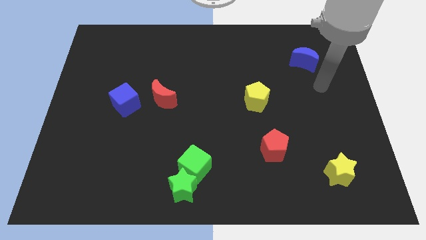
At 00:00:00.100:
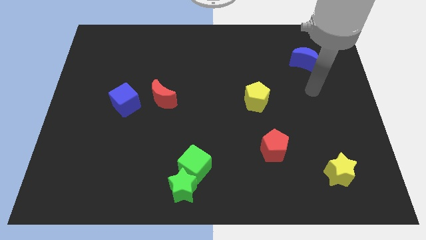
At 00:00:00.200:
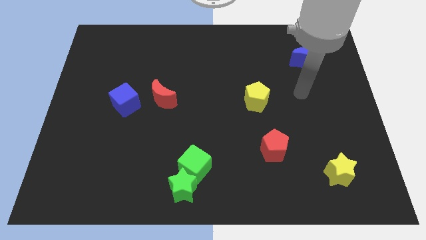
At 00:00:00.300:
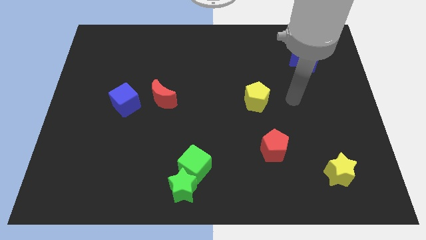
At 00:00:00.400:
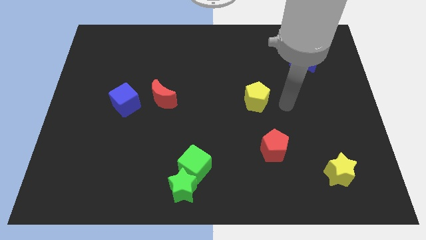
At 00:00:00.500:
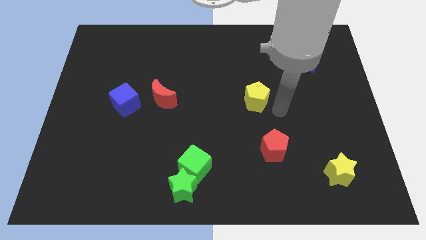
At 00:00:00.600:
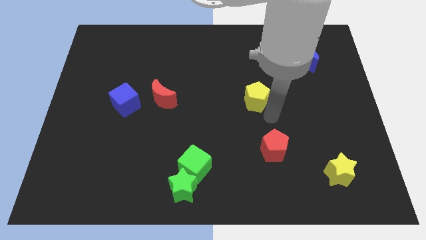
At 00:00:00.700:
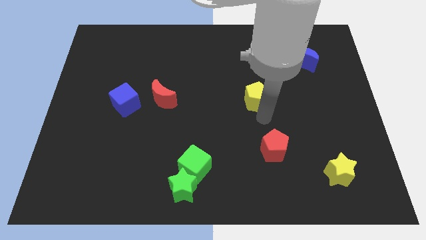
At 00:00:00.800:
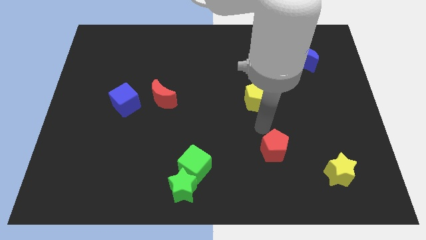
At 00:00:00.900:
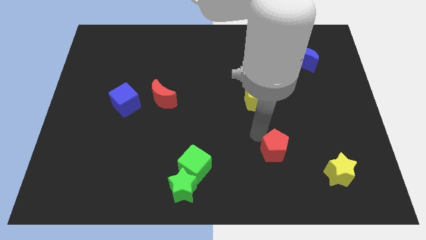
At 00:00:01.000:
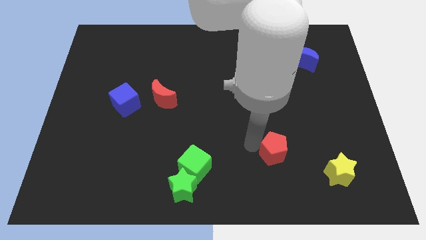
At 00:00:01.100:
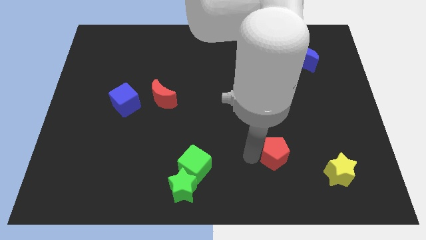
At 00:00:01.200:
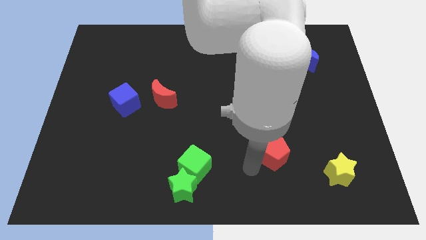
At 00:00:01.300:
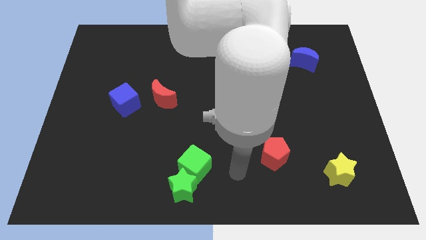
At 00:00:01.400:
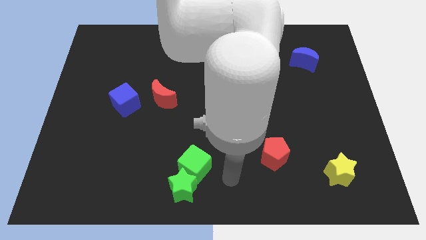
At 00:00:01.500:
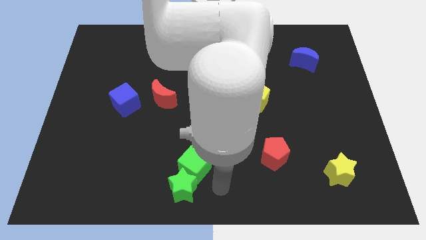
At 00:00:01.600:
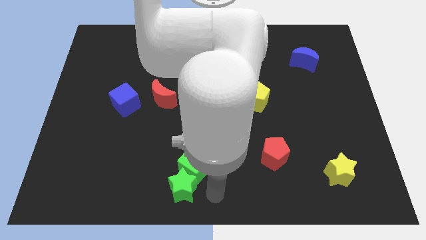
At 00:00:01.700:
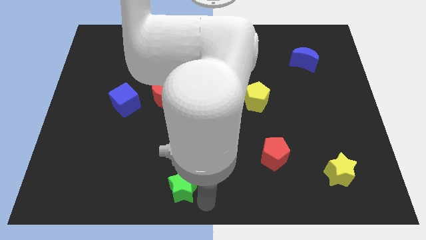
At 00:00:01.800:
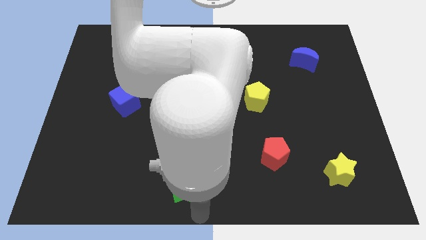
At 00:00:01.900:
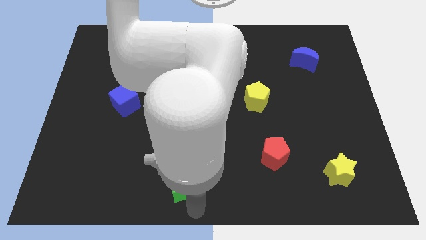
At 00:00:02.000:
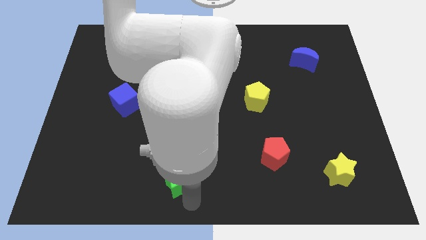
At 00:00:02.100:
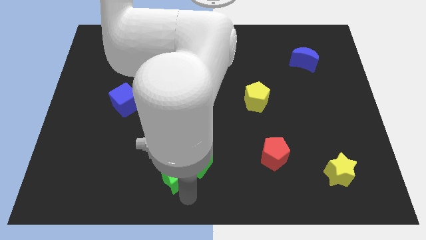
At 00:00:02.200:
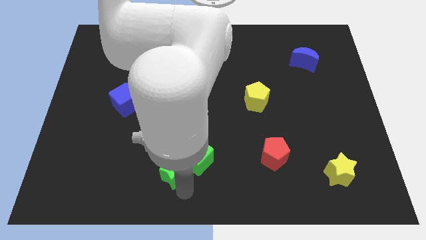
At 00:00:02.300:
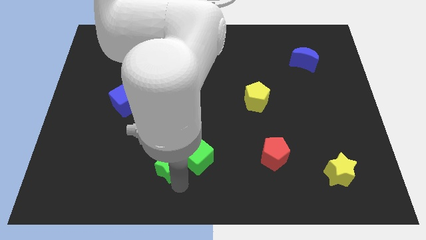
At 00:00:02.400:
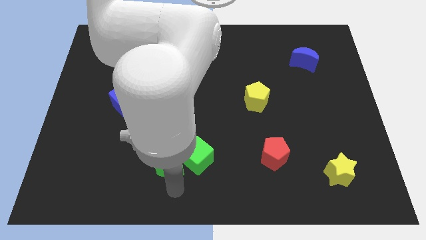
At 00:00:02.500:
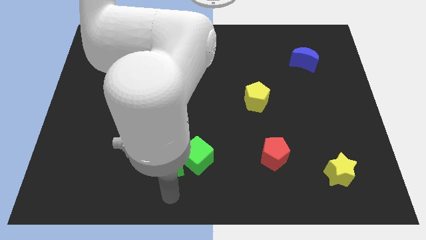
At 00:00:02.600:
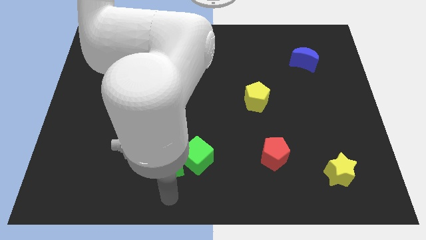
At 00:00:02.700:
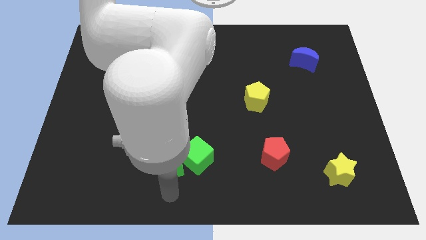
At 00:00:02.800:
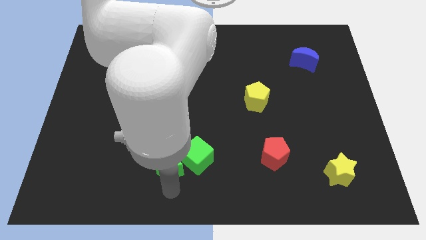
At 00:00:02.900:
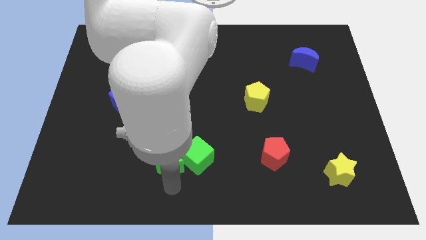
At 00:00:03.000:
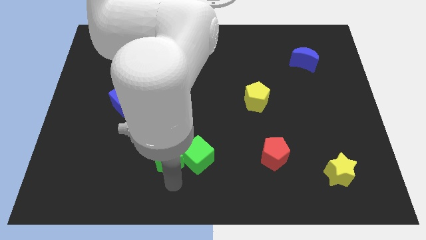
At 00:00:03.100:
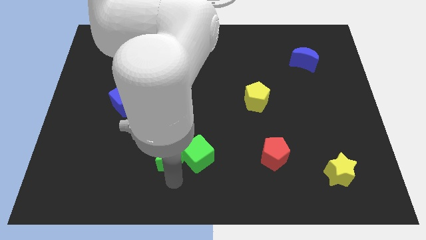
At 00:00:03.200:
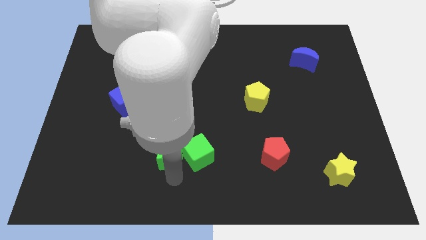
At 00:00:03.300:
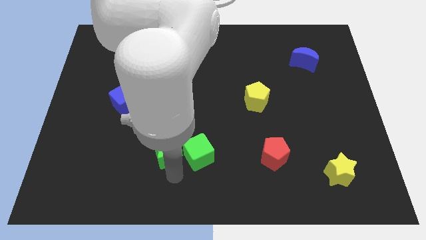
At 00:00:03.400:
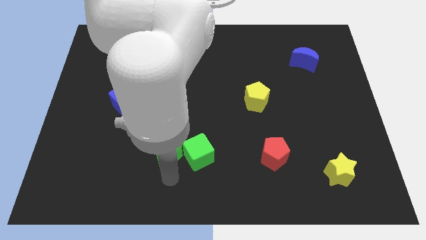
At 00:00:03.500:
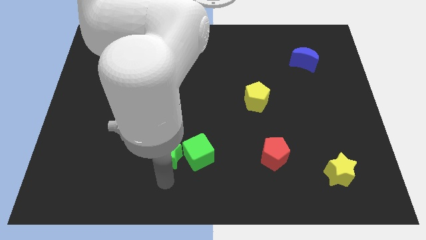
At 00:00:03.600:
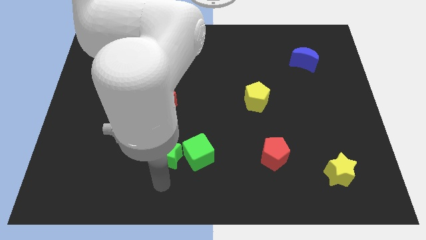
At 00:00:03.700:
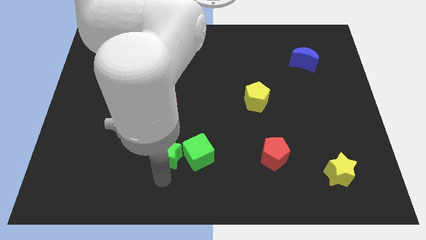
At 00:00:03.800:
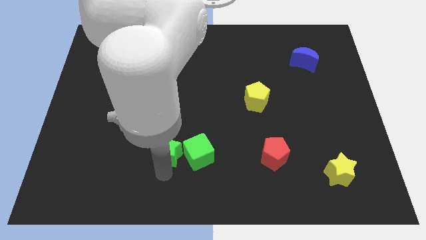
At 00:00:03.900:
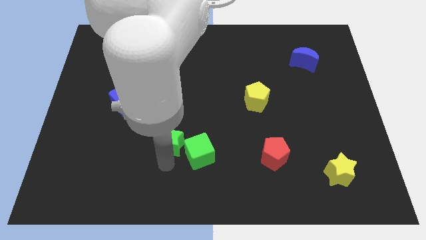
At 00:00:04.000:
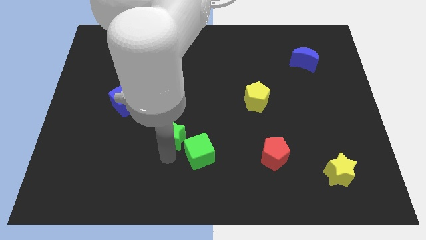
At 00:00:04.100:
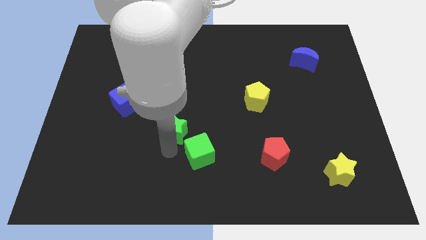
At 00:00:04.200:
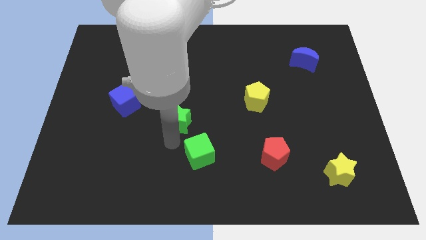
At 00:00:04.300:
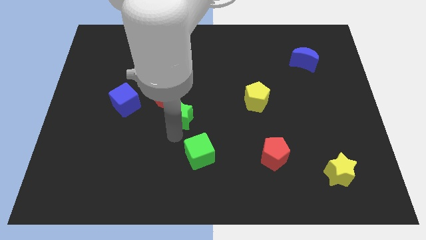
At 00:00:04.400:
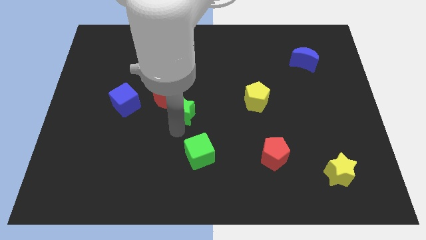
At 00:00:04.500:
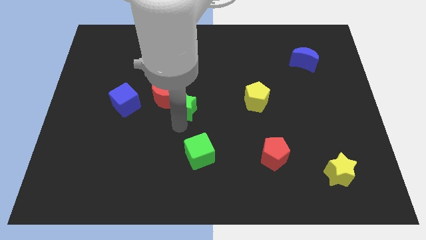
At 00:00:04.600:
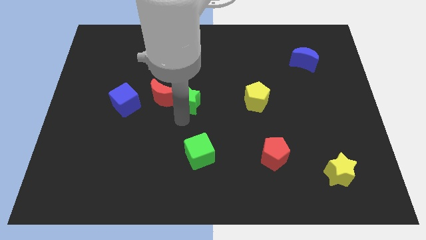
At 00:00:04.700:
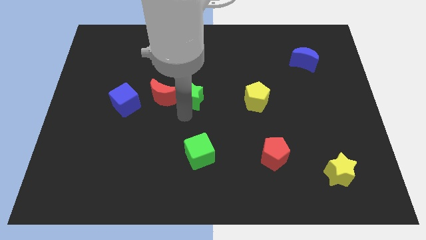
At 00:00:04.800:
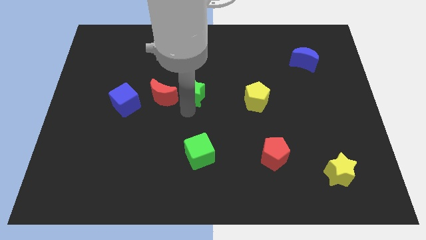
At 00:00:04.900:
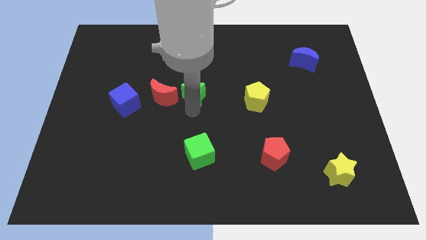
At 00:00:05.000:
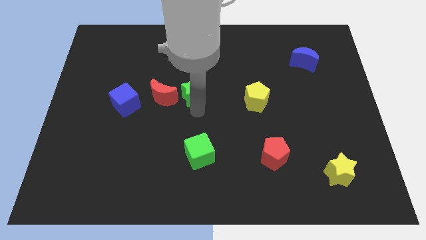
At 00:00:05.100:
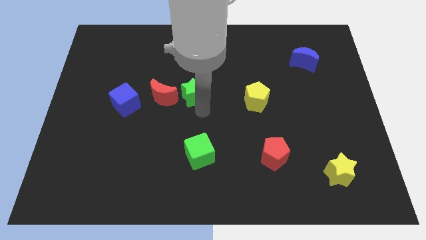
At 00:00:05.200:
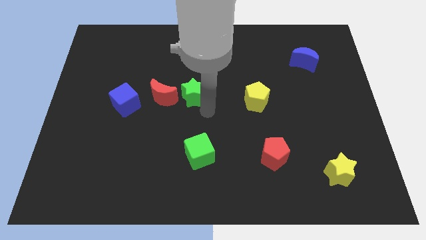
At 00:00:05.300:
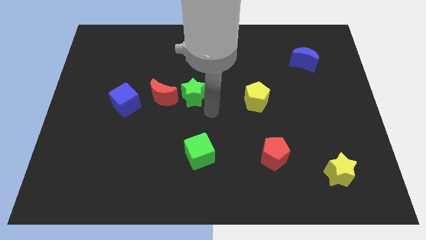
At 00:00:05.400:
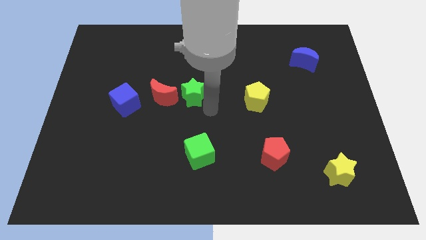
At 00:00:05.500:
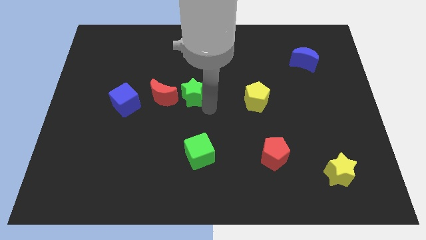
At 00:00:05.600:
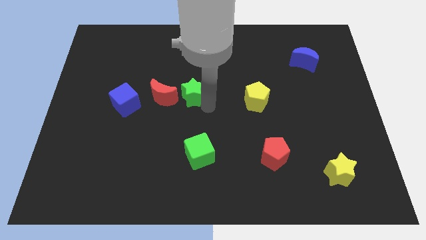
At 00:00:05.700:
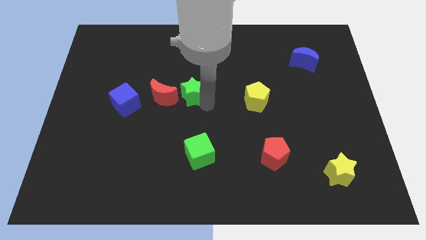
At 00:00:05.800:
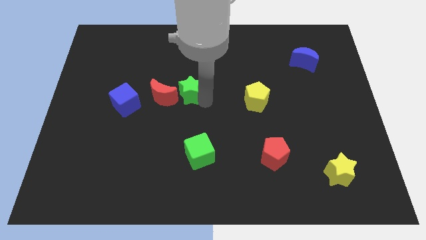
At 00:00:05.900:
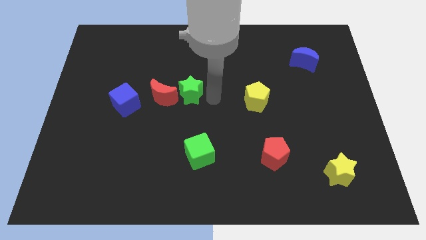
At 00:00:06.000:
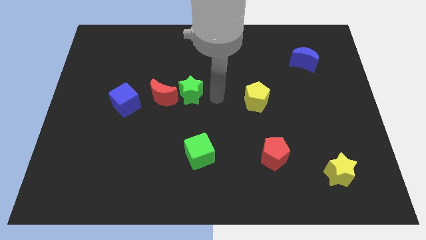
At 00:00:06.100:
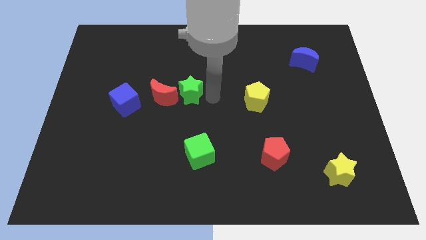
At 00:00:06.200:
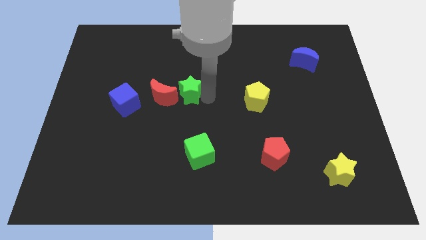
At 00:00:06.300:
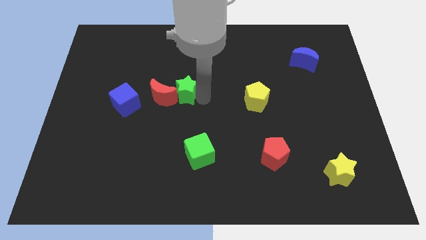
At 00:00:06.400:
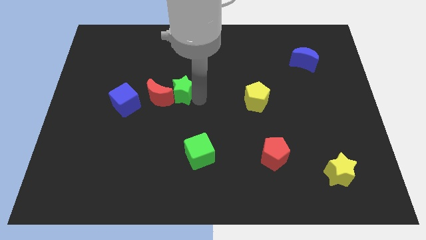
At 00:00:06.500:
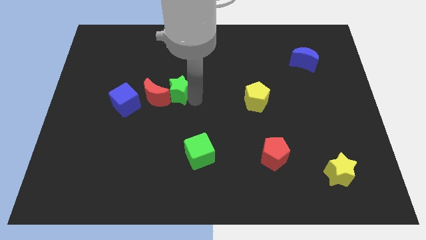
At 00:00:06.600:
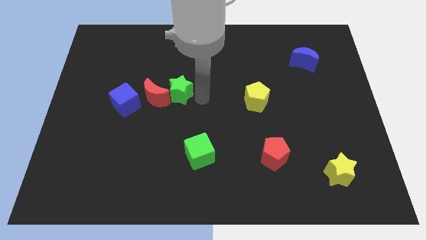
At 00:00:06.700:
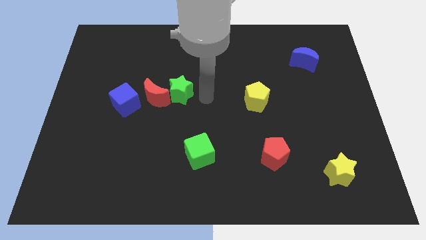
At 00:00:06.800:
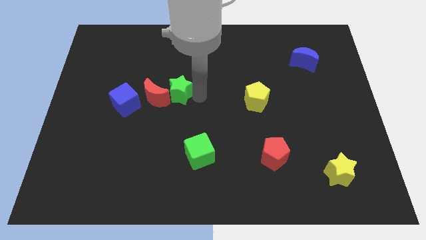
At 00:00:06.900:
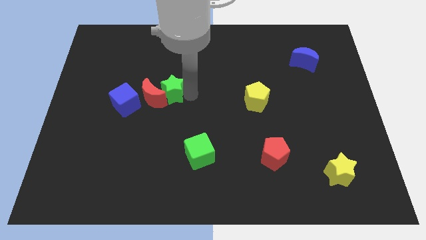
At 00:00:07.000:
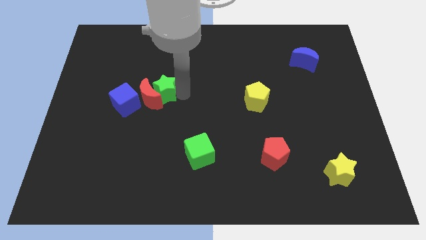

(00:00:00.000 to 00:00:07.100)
push the green star to the top right side of the blue cube

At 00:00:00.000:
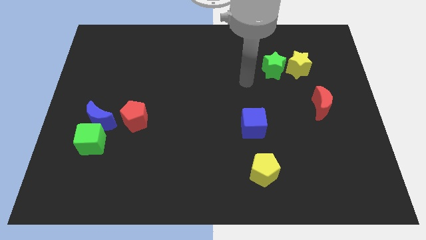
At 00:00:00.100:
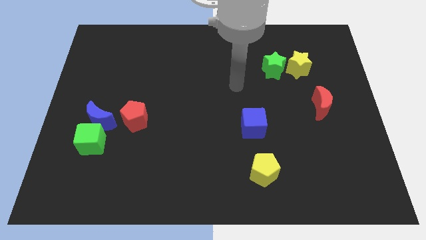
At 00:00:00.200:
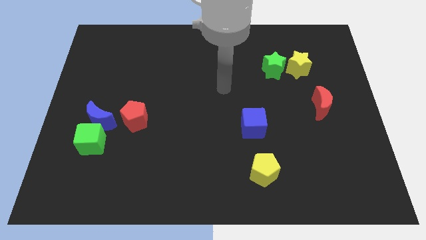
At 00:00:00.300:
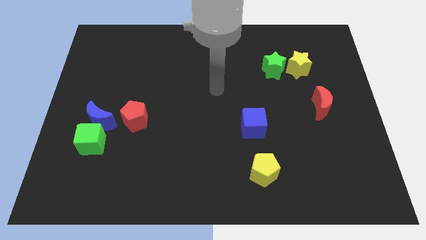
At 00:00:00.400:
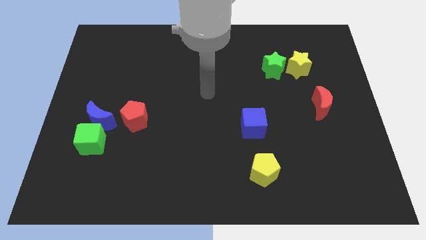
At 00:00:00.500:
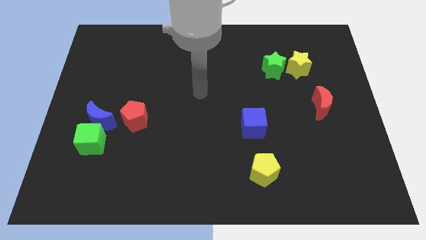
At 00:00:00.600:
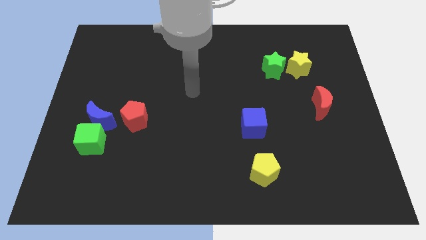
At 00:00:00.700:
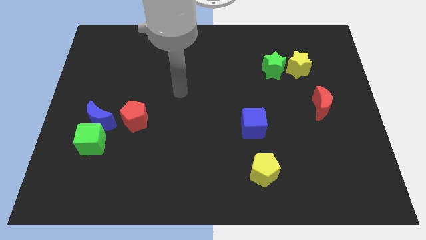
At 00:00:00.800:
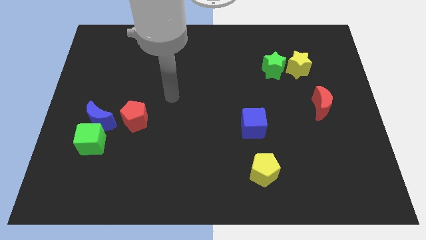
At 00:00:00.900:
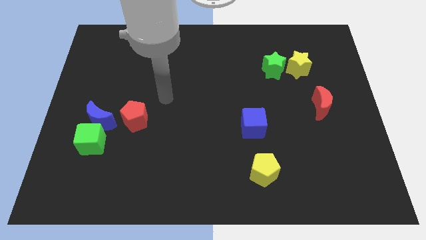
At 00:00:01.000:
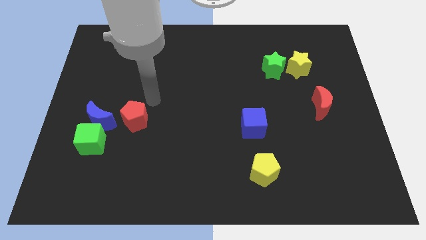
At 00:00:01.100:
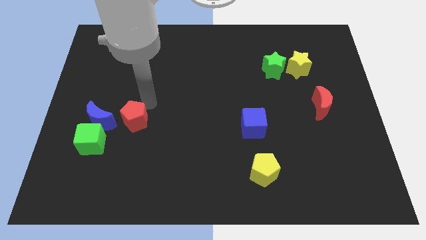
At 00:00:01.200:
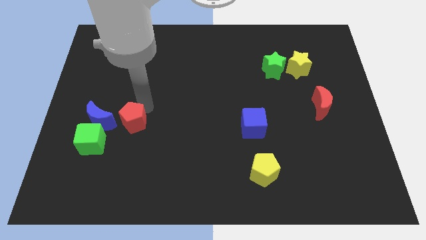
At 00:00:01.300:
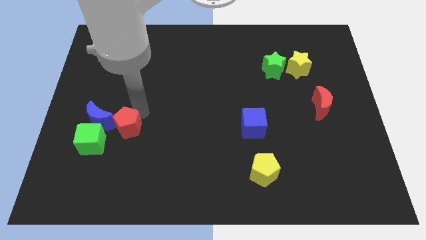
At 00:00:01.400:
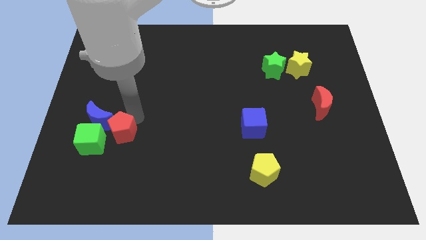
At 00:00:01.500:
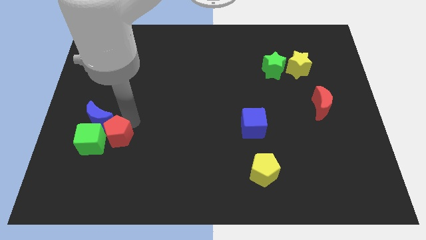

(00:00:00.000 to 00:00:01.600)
slide the red pentagon to the bottom side of the blue moon
